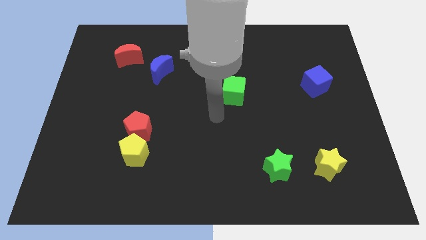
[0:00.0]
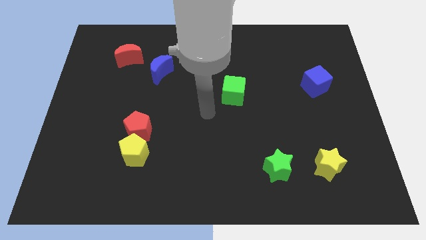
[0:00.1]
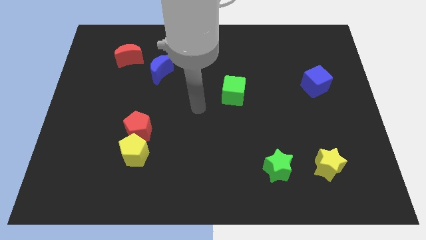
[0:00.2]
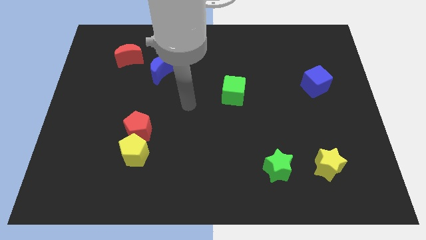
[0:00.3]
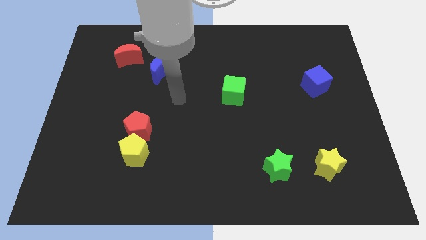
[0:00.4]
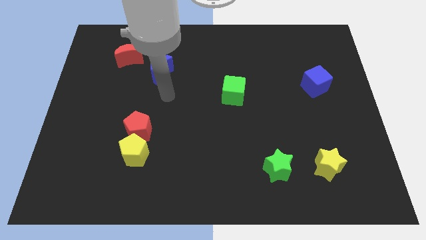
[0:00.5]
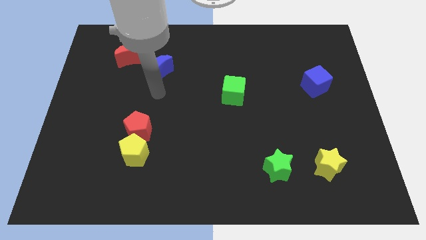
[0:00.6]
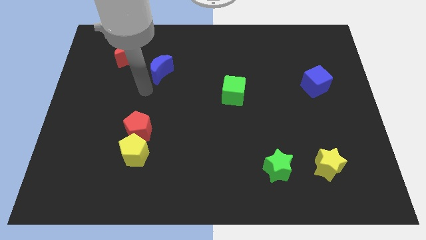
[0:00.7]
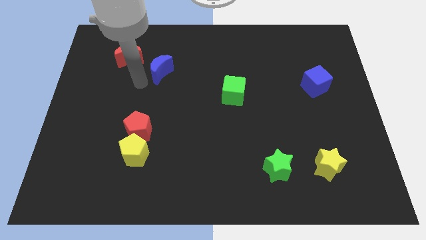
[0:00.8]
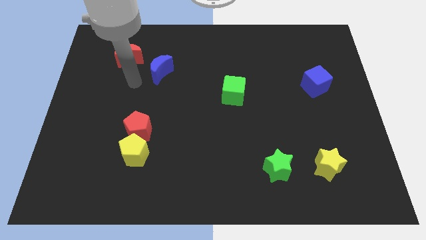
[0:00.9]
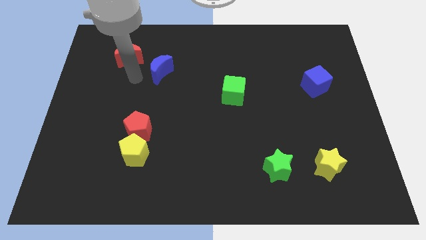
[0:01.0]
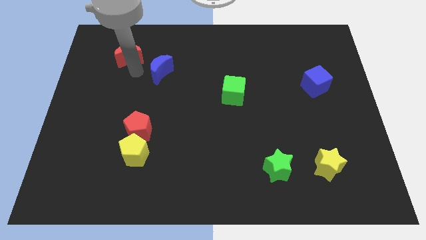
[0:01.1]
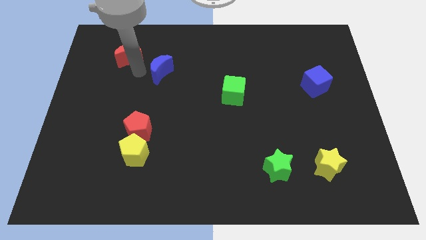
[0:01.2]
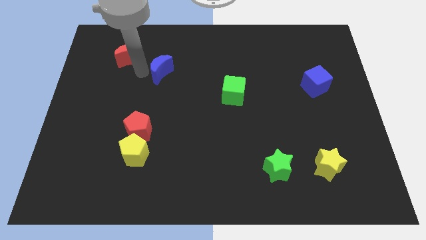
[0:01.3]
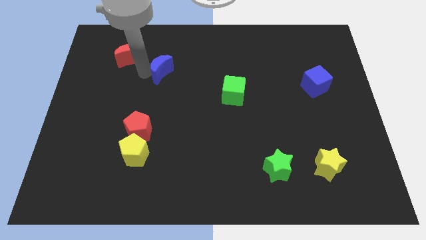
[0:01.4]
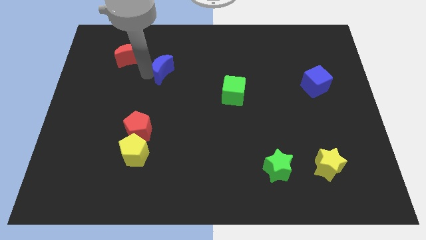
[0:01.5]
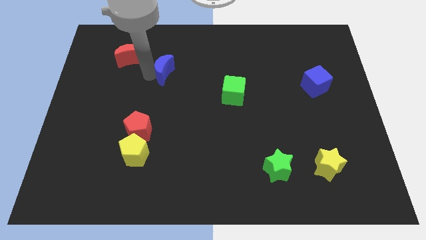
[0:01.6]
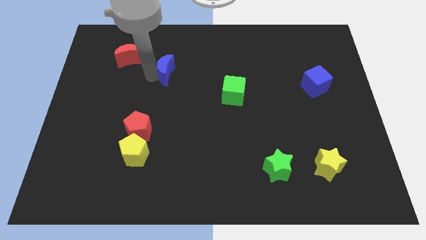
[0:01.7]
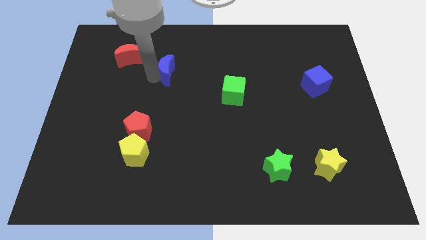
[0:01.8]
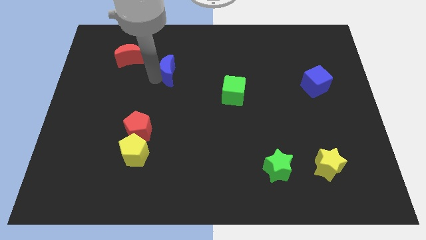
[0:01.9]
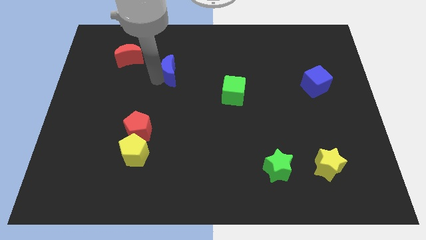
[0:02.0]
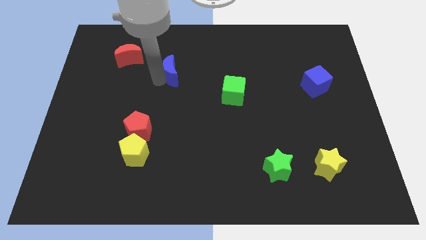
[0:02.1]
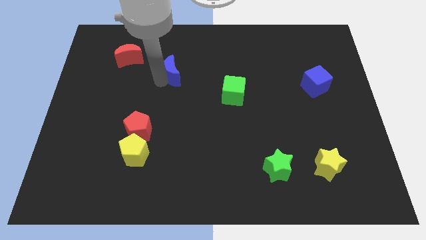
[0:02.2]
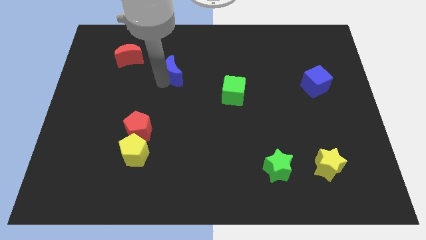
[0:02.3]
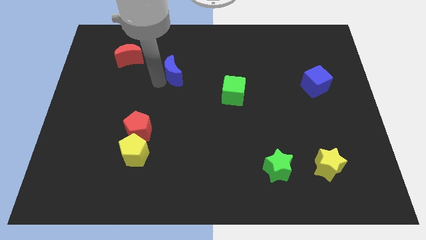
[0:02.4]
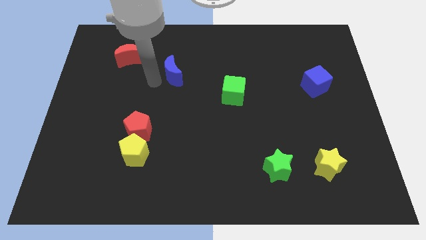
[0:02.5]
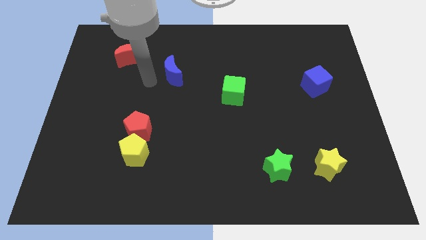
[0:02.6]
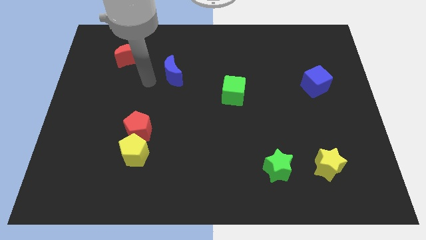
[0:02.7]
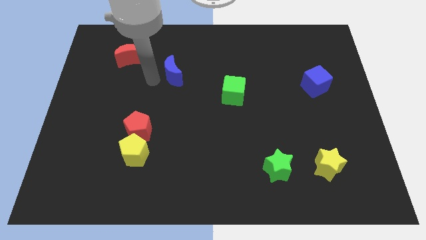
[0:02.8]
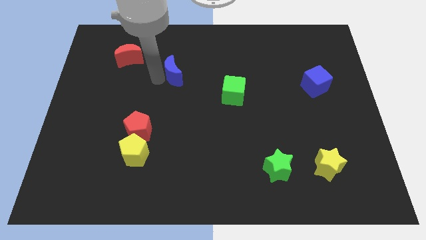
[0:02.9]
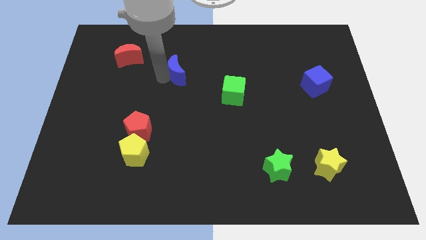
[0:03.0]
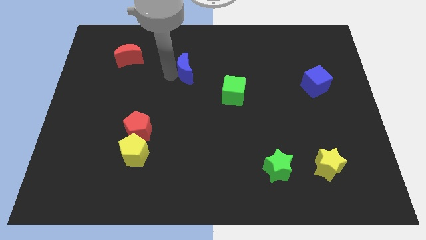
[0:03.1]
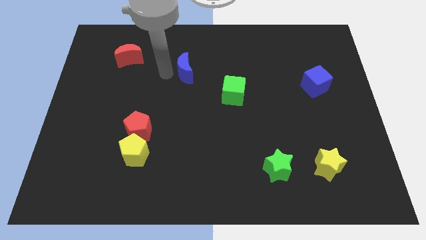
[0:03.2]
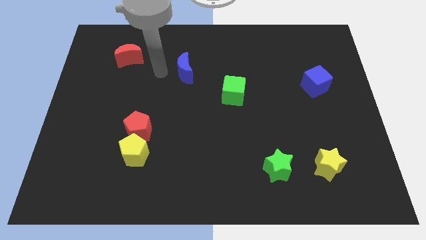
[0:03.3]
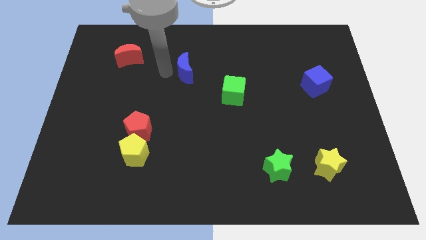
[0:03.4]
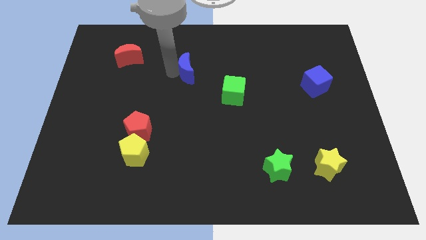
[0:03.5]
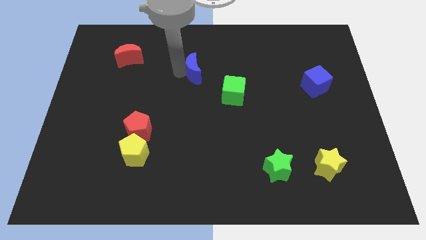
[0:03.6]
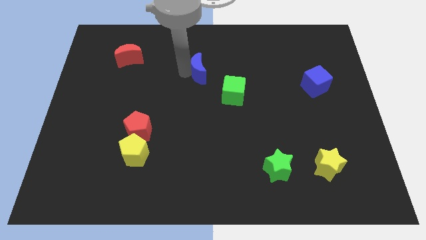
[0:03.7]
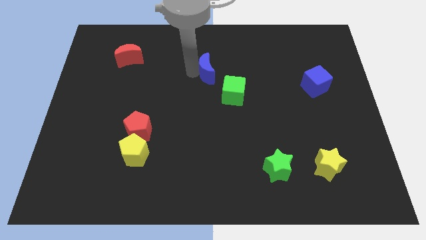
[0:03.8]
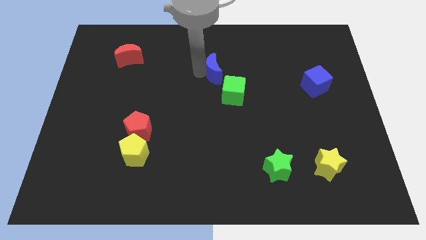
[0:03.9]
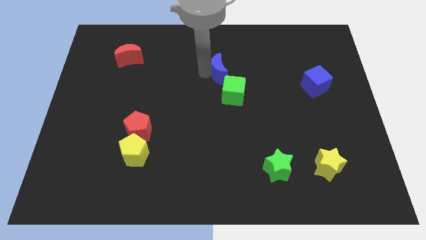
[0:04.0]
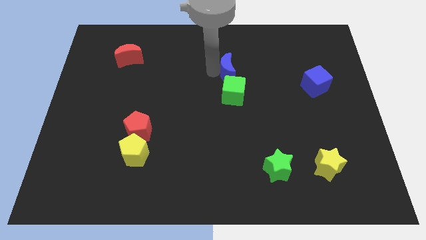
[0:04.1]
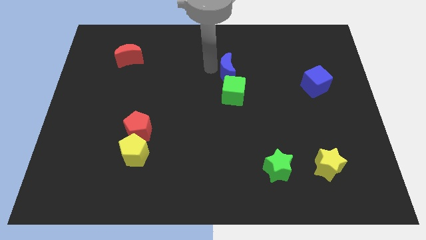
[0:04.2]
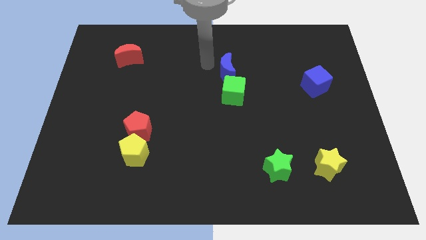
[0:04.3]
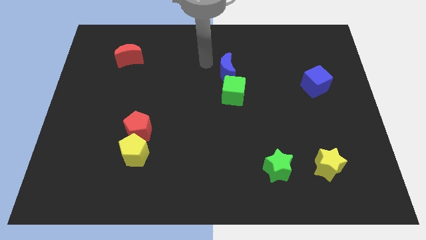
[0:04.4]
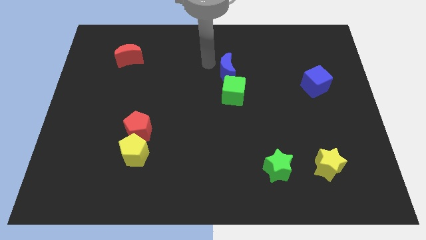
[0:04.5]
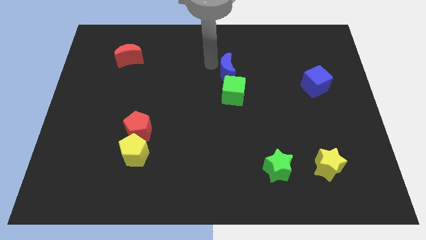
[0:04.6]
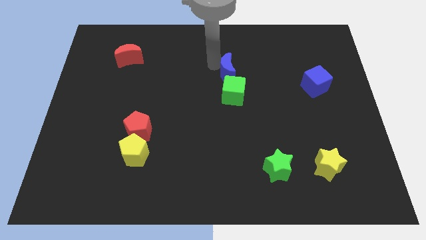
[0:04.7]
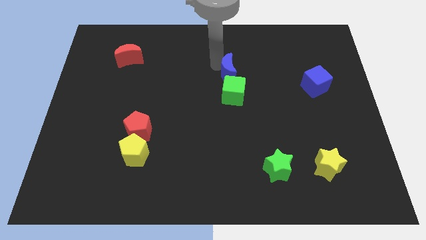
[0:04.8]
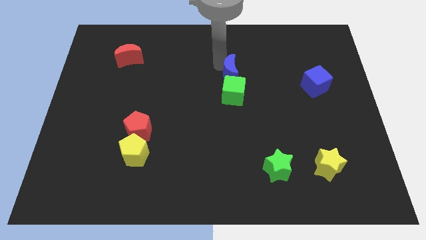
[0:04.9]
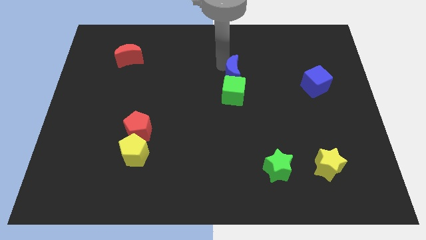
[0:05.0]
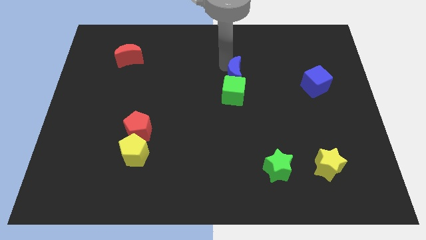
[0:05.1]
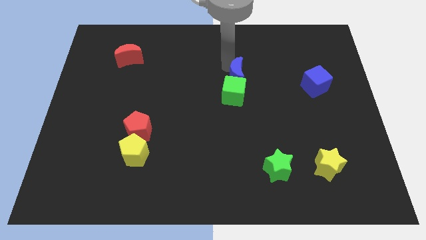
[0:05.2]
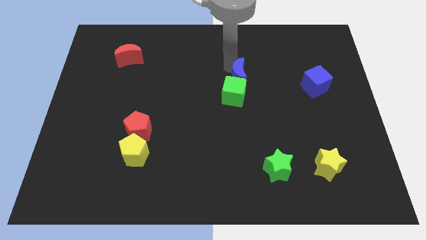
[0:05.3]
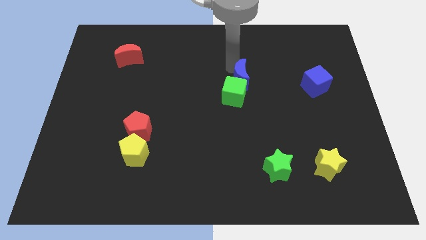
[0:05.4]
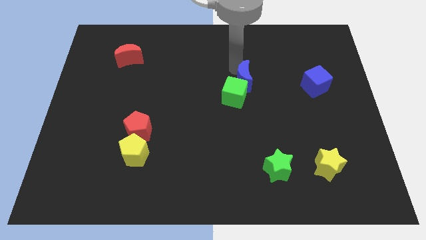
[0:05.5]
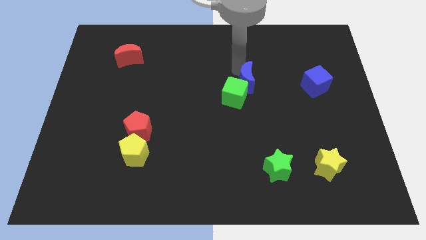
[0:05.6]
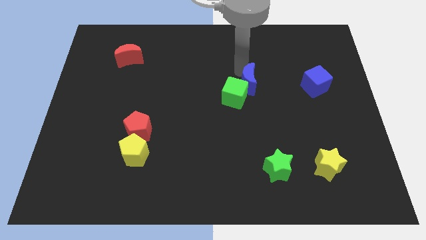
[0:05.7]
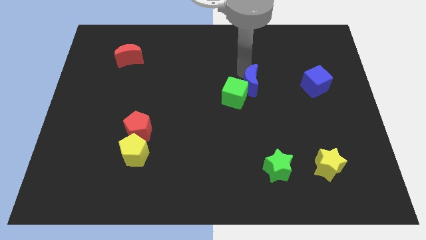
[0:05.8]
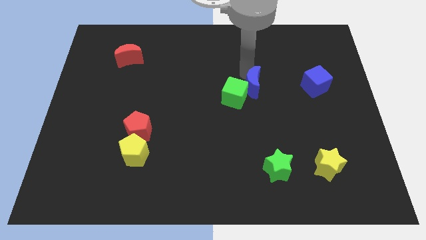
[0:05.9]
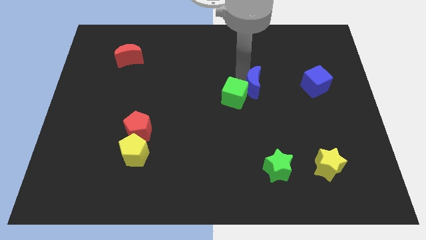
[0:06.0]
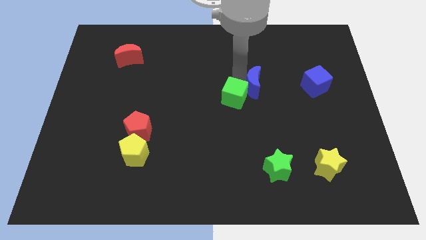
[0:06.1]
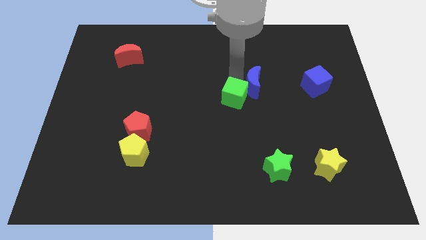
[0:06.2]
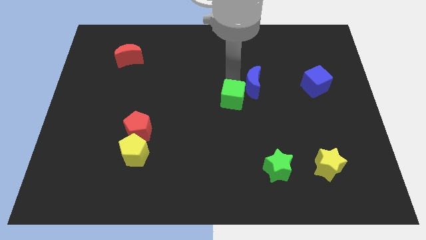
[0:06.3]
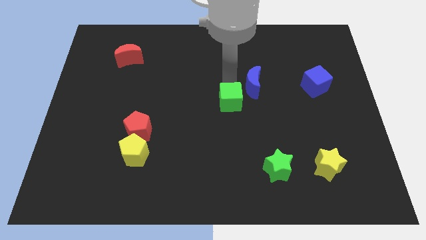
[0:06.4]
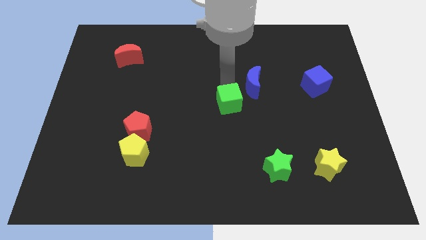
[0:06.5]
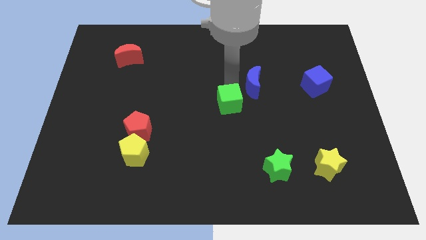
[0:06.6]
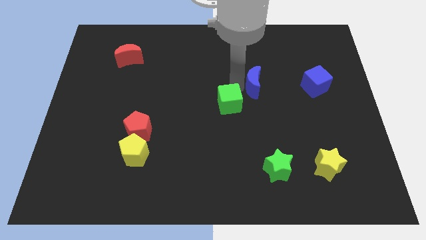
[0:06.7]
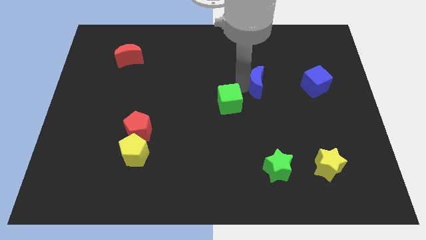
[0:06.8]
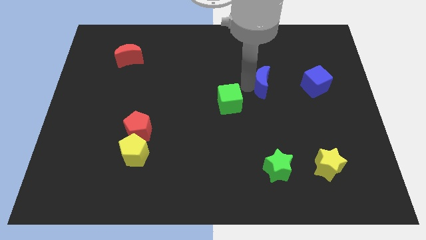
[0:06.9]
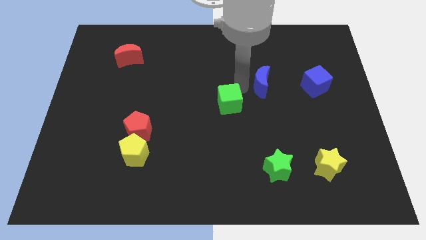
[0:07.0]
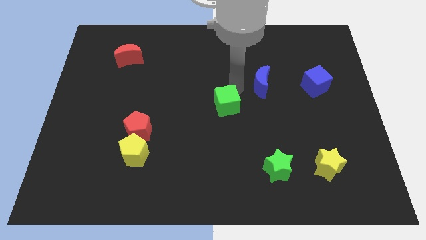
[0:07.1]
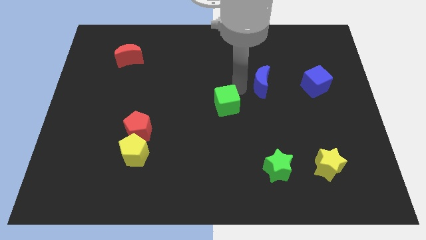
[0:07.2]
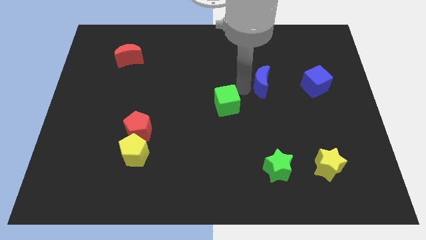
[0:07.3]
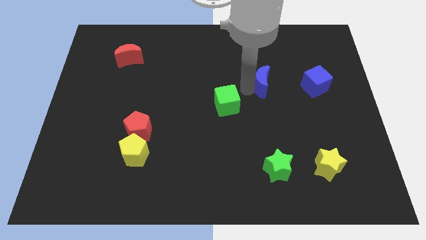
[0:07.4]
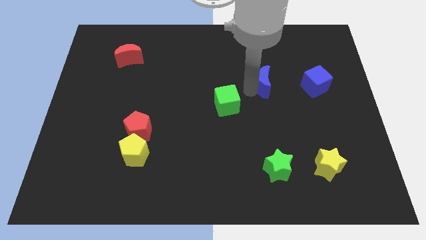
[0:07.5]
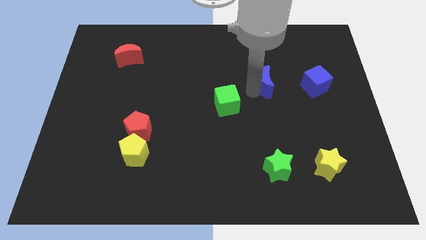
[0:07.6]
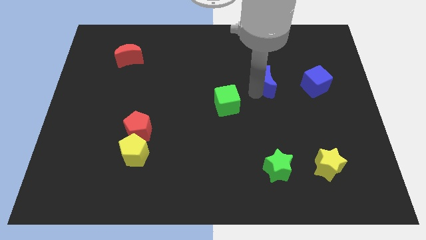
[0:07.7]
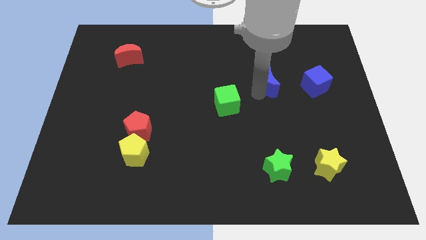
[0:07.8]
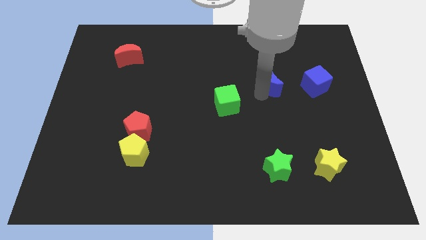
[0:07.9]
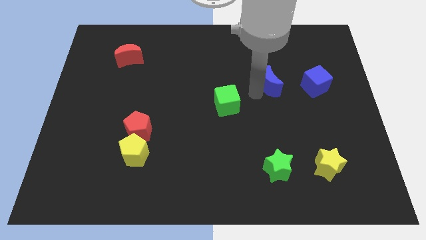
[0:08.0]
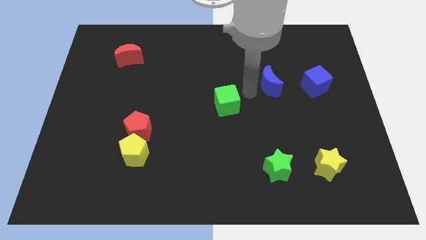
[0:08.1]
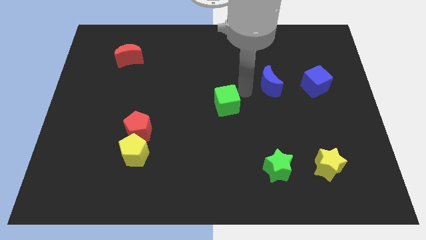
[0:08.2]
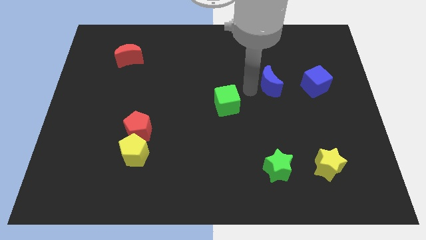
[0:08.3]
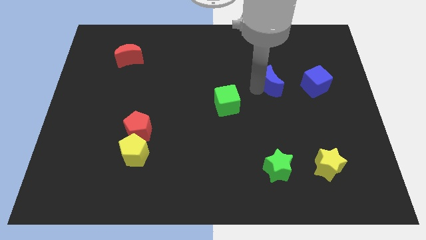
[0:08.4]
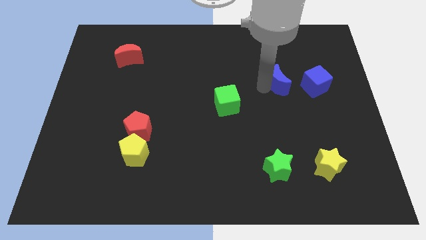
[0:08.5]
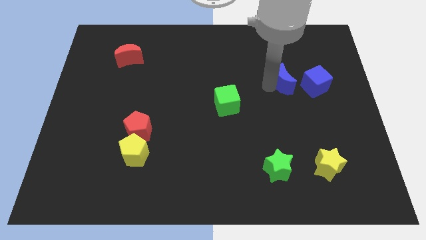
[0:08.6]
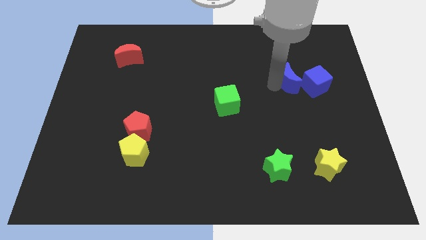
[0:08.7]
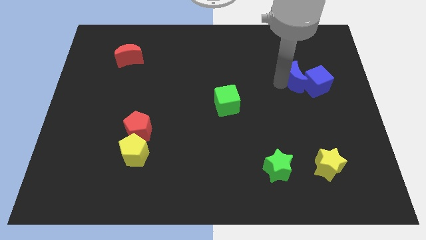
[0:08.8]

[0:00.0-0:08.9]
put the blue moon close to the blue cube
